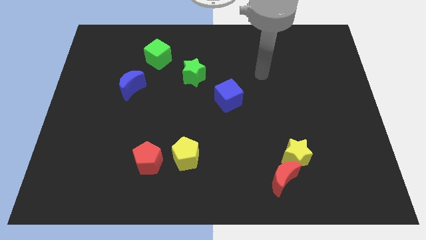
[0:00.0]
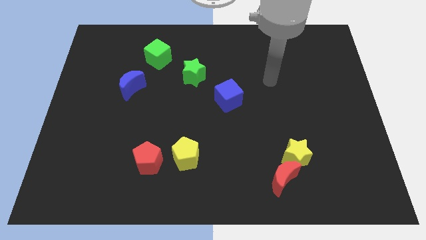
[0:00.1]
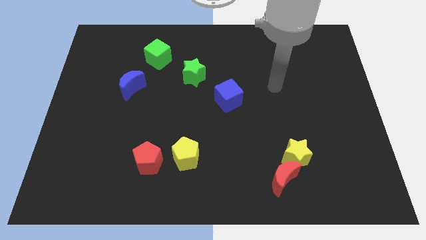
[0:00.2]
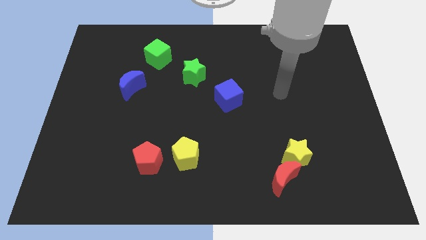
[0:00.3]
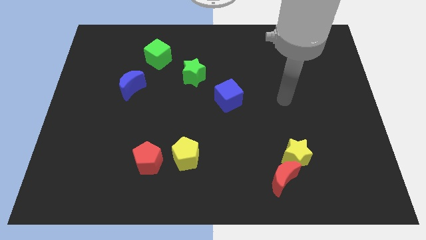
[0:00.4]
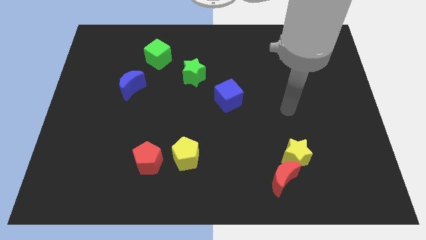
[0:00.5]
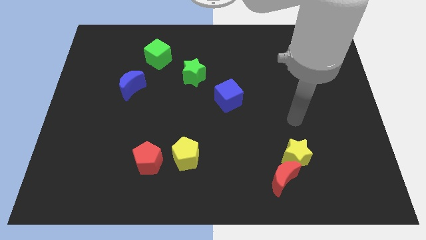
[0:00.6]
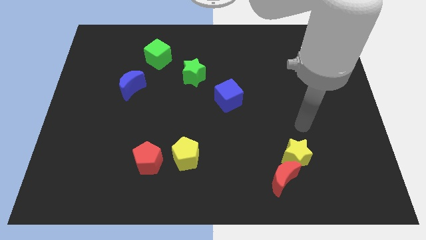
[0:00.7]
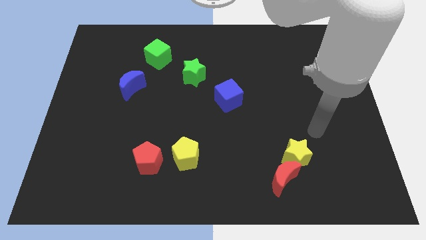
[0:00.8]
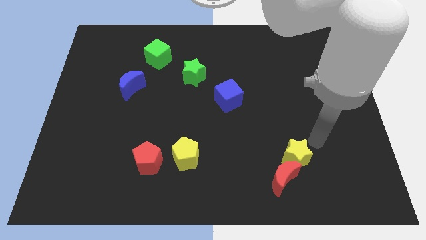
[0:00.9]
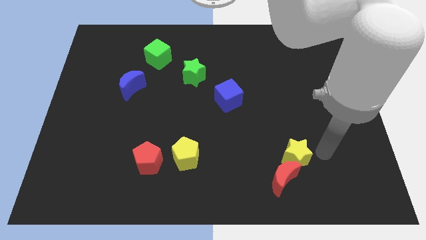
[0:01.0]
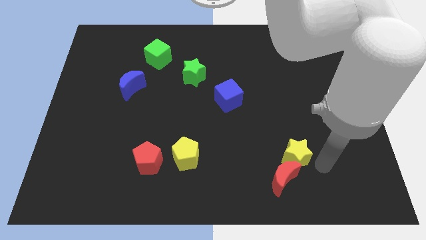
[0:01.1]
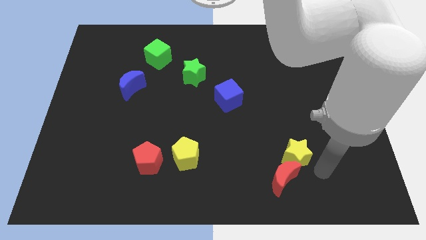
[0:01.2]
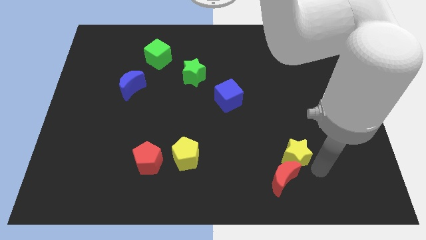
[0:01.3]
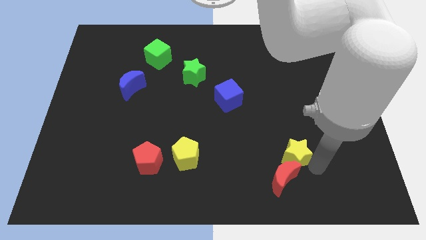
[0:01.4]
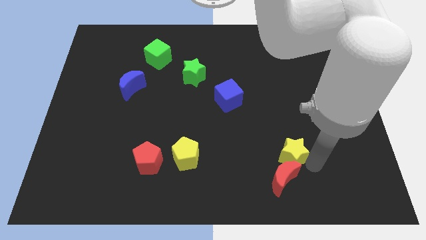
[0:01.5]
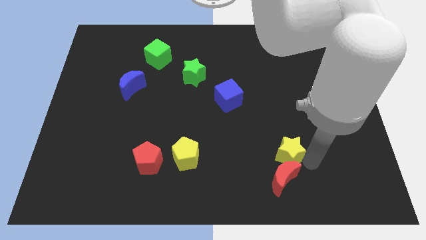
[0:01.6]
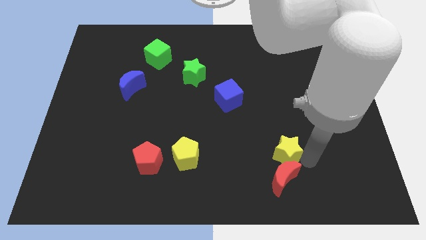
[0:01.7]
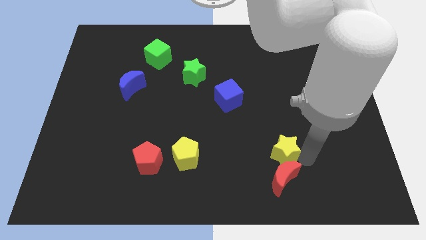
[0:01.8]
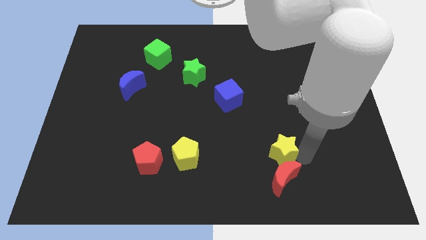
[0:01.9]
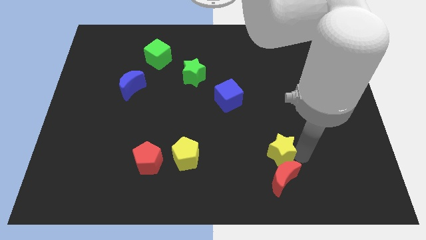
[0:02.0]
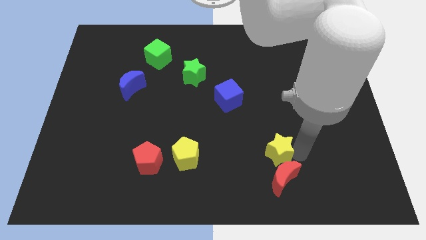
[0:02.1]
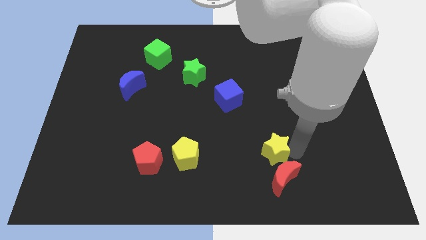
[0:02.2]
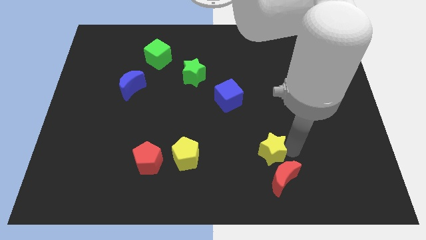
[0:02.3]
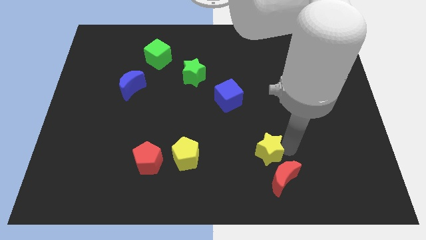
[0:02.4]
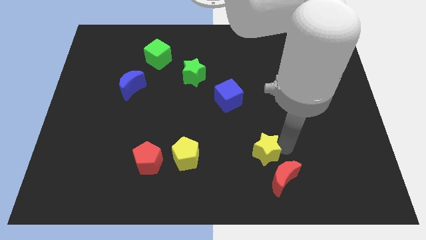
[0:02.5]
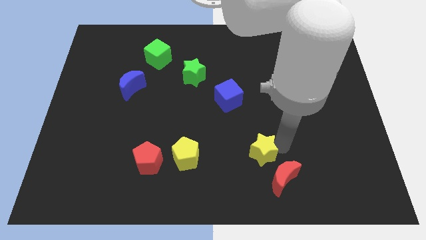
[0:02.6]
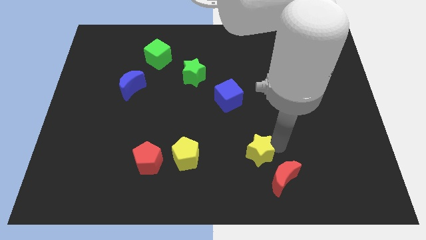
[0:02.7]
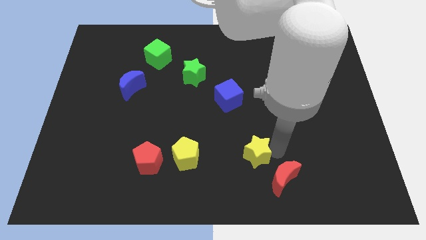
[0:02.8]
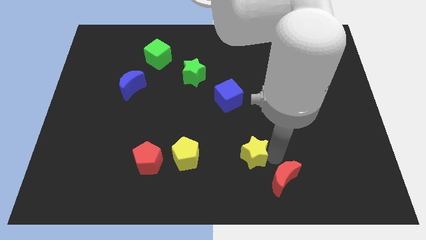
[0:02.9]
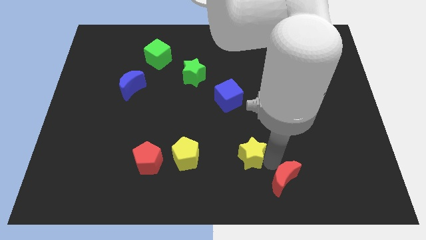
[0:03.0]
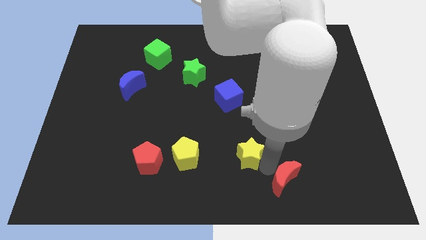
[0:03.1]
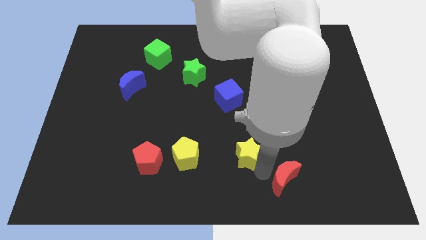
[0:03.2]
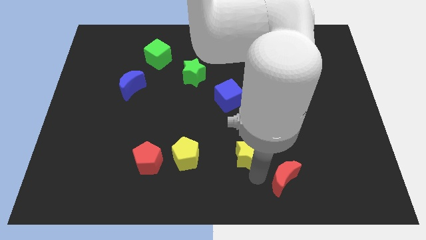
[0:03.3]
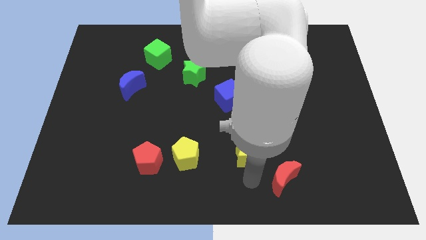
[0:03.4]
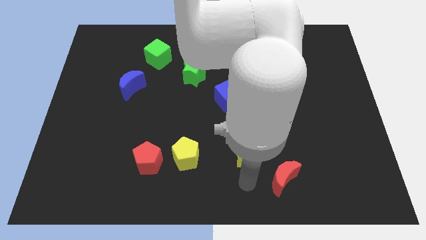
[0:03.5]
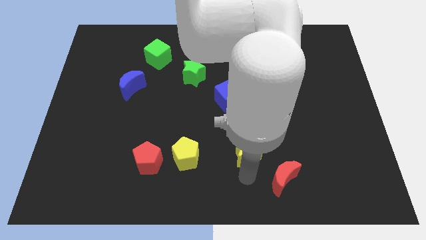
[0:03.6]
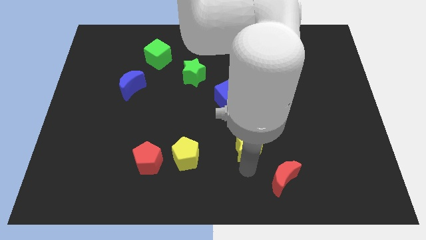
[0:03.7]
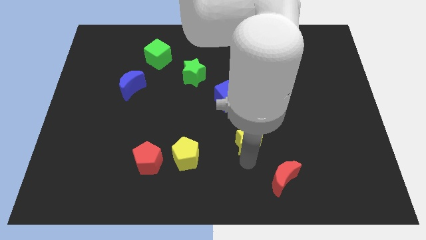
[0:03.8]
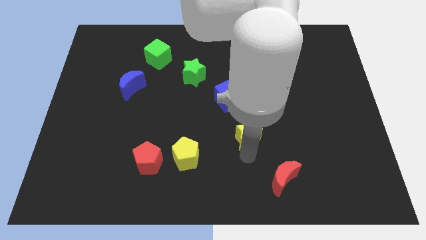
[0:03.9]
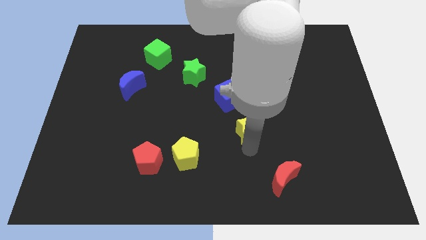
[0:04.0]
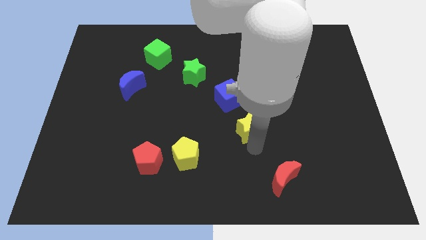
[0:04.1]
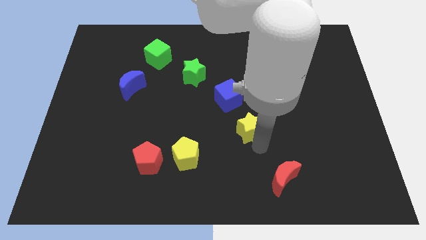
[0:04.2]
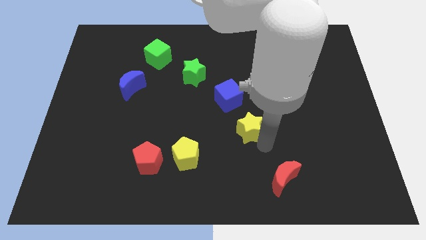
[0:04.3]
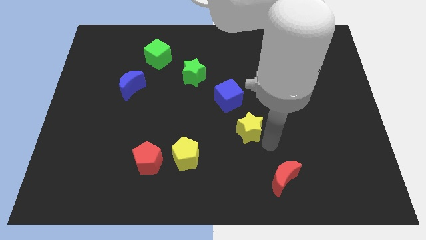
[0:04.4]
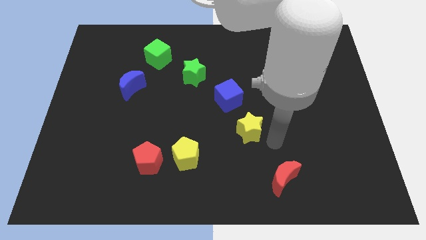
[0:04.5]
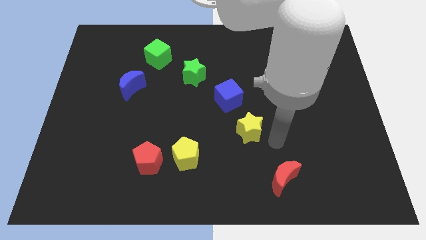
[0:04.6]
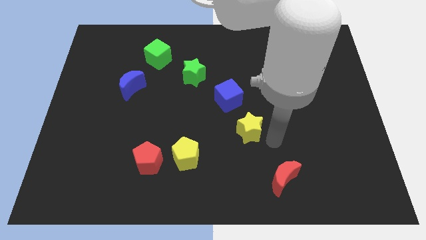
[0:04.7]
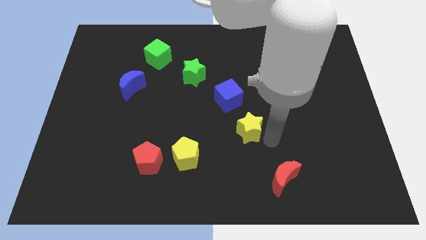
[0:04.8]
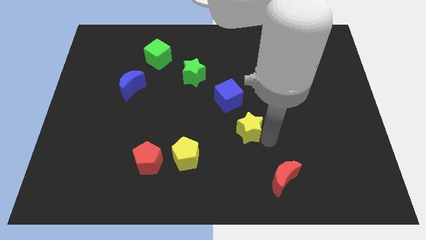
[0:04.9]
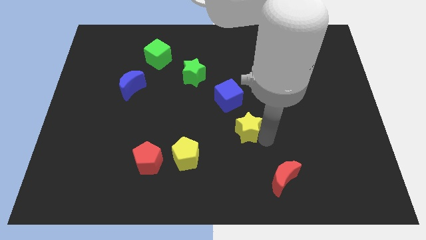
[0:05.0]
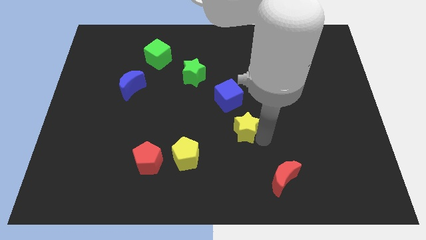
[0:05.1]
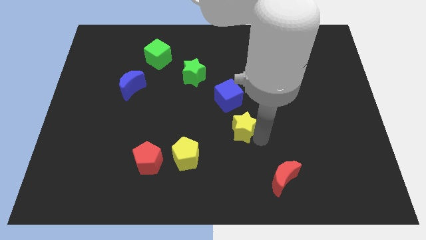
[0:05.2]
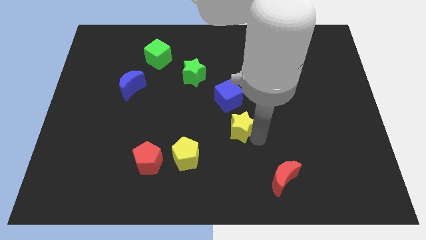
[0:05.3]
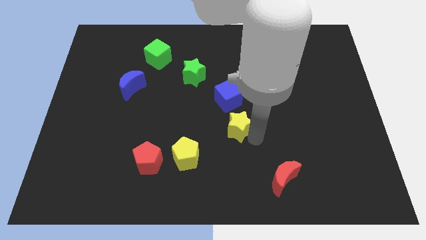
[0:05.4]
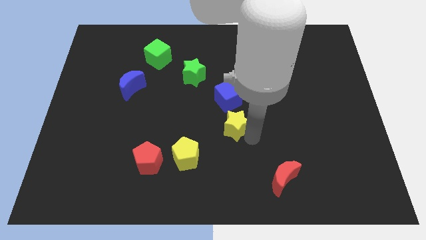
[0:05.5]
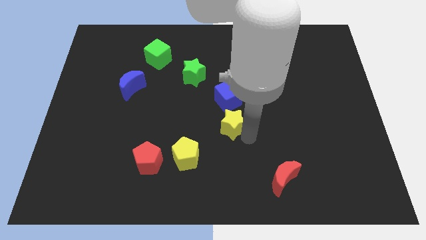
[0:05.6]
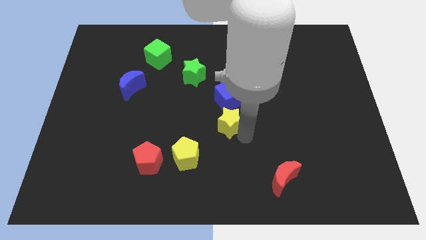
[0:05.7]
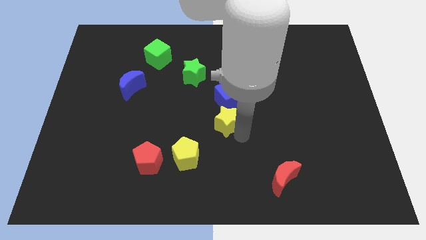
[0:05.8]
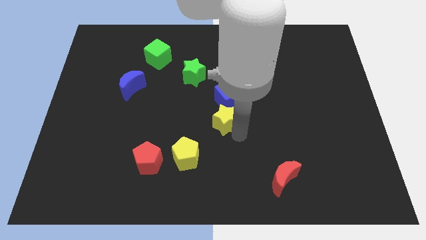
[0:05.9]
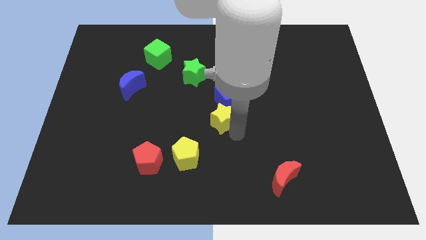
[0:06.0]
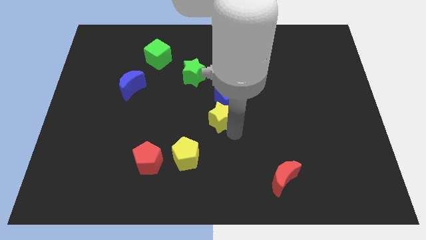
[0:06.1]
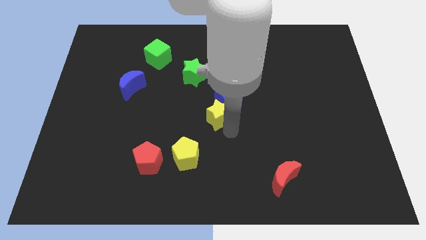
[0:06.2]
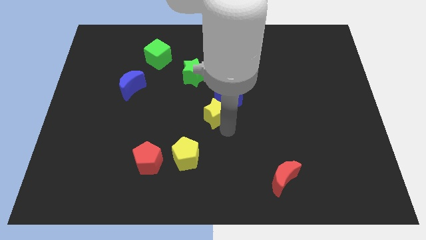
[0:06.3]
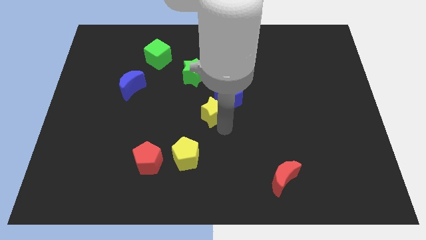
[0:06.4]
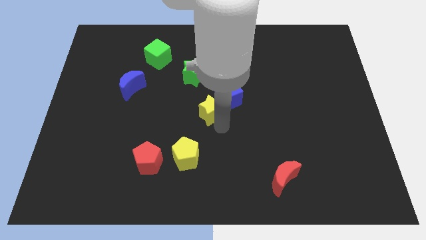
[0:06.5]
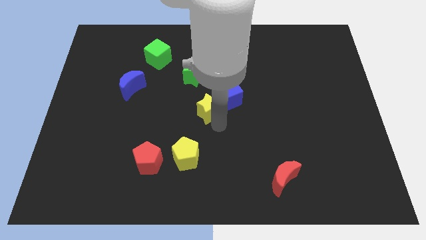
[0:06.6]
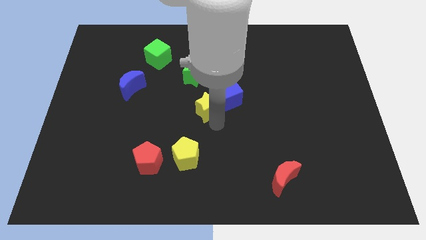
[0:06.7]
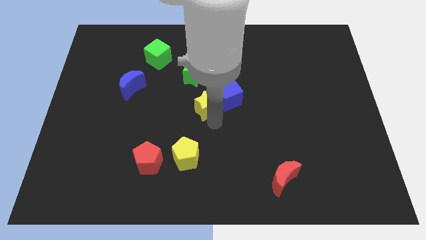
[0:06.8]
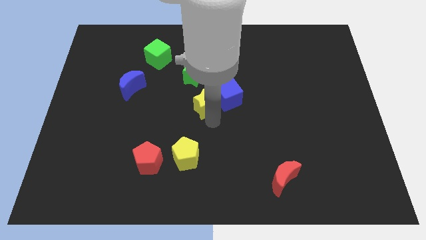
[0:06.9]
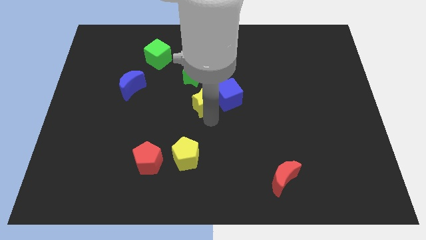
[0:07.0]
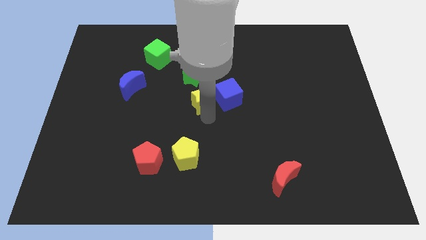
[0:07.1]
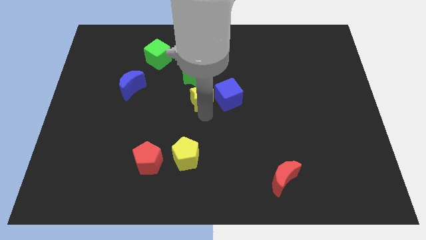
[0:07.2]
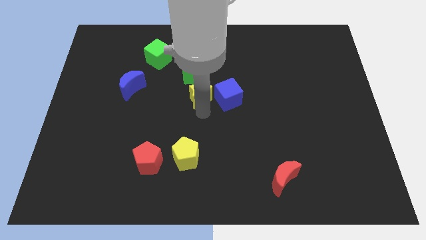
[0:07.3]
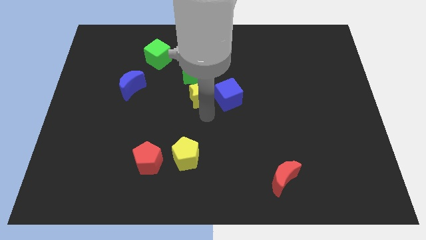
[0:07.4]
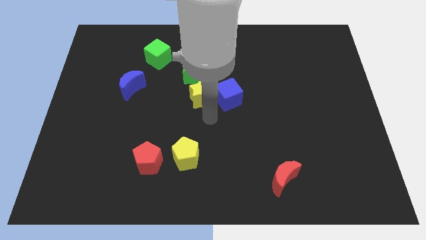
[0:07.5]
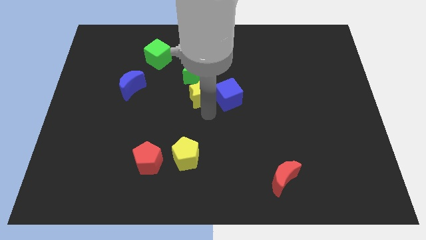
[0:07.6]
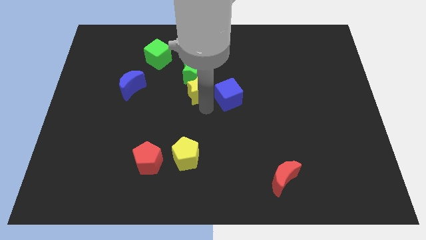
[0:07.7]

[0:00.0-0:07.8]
move the yellow star next to the green star
